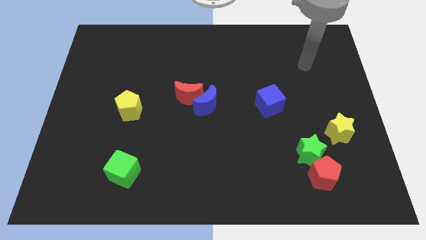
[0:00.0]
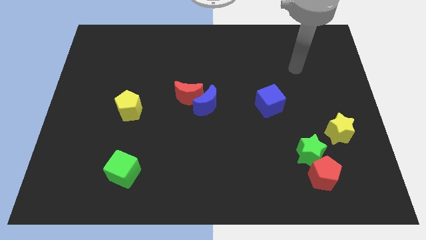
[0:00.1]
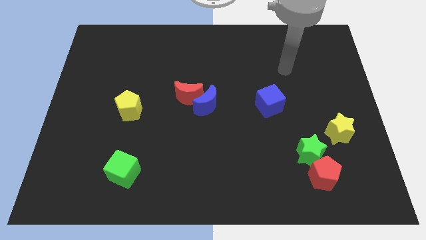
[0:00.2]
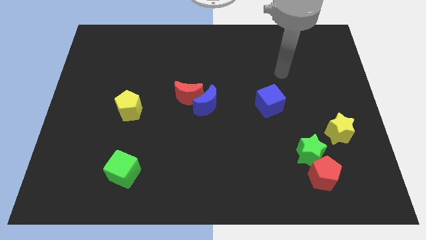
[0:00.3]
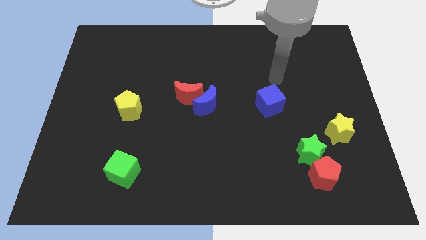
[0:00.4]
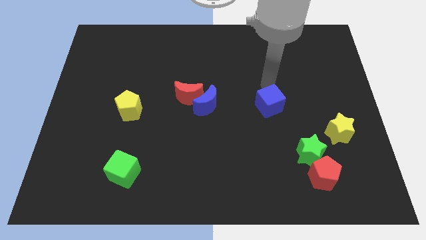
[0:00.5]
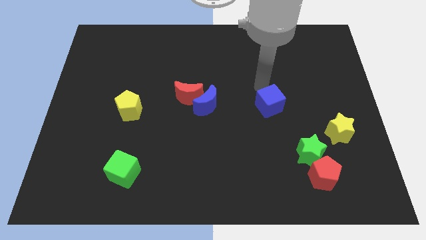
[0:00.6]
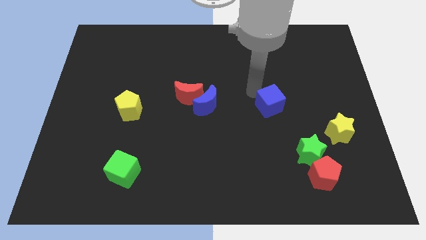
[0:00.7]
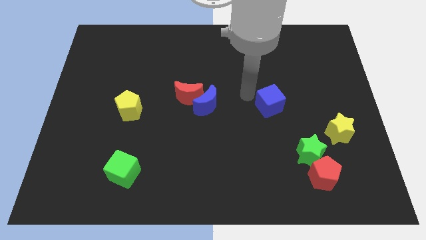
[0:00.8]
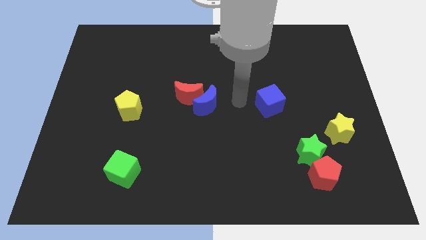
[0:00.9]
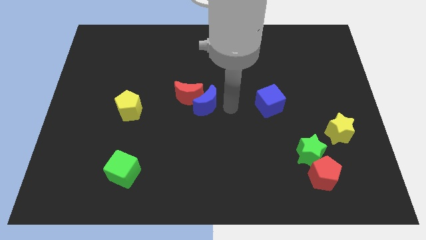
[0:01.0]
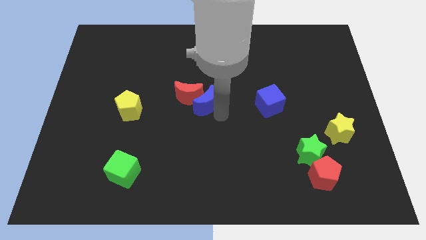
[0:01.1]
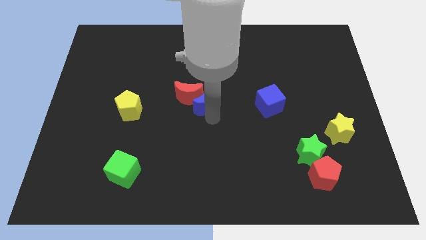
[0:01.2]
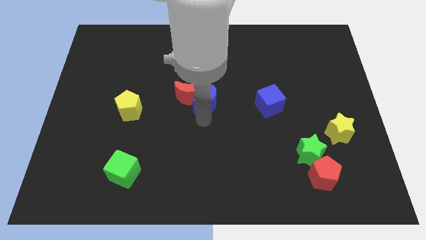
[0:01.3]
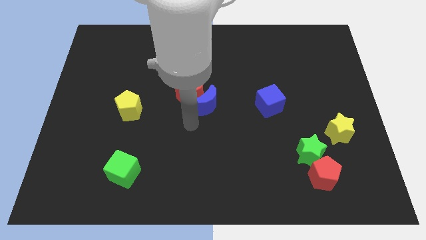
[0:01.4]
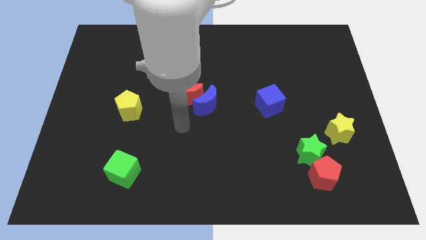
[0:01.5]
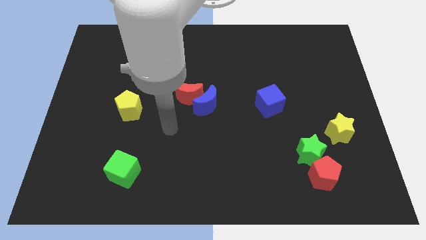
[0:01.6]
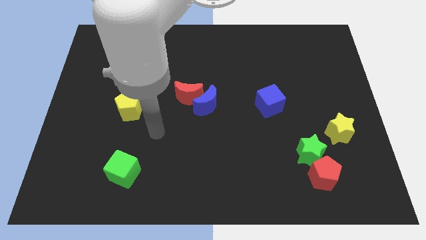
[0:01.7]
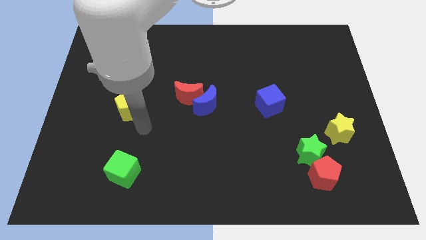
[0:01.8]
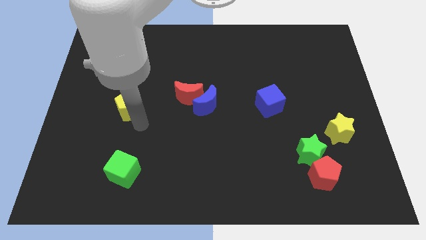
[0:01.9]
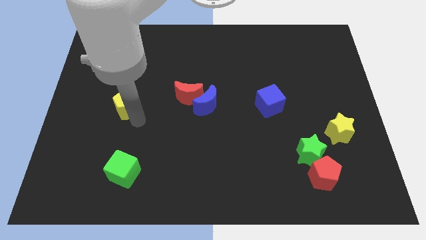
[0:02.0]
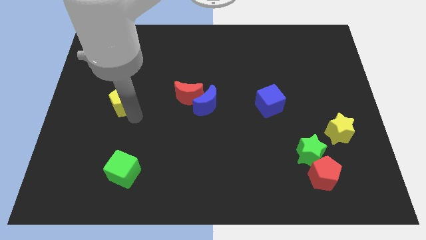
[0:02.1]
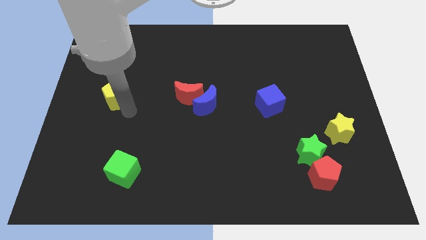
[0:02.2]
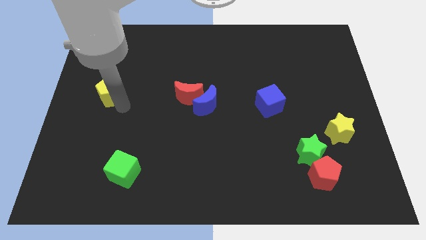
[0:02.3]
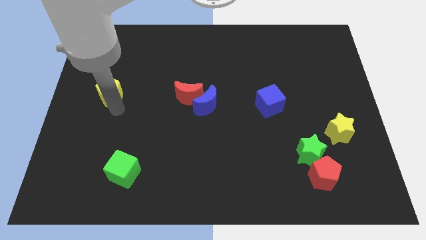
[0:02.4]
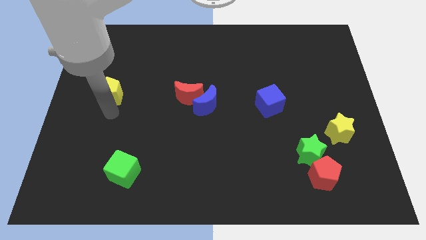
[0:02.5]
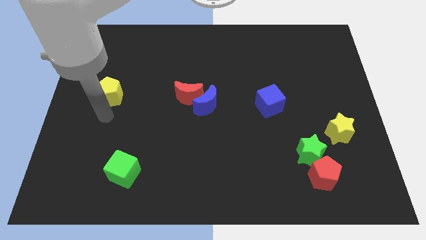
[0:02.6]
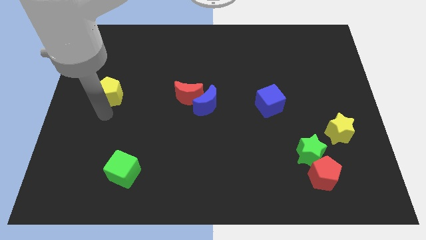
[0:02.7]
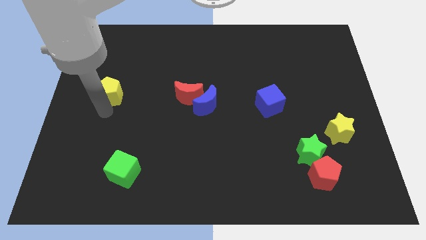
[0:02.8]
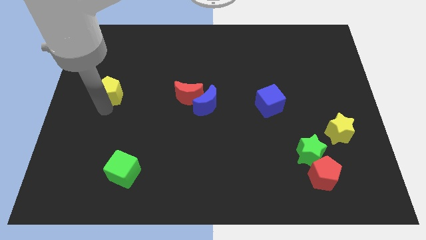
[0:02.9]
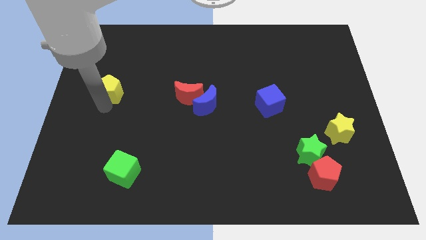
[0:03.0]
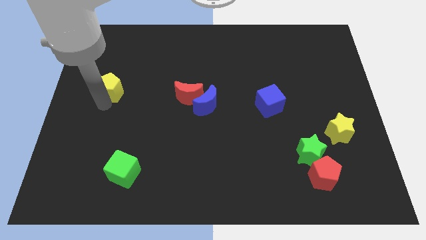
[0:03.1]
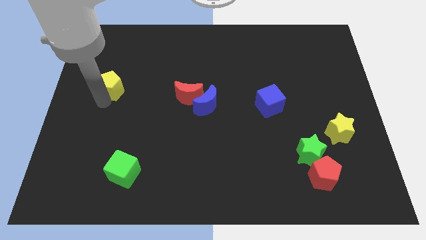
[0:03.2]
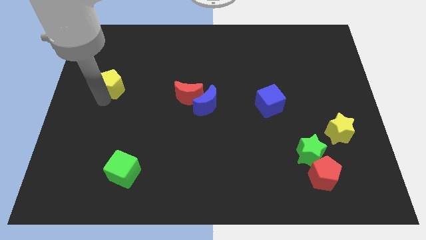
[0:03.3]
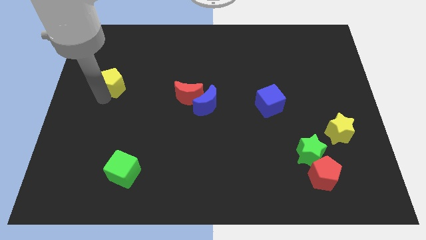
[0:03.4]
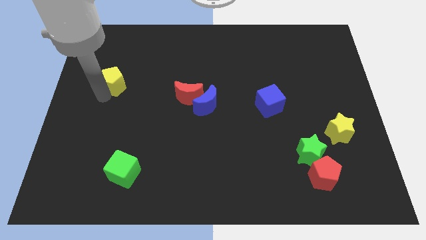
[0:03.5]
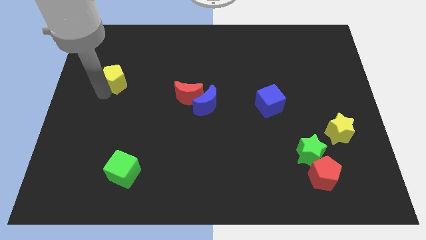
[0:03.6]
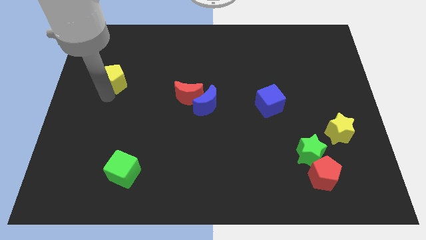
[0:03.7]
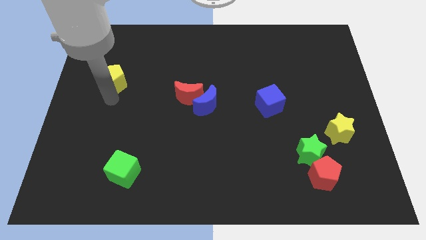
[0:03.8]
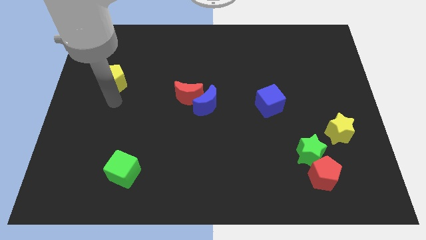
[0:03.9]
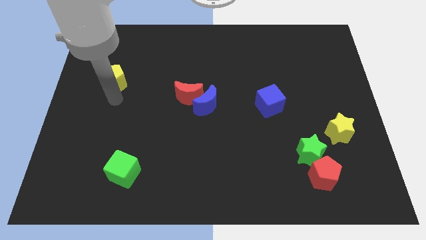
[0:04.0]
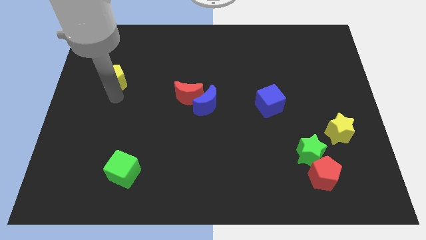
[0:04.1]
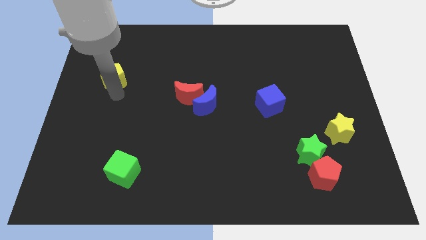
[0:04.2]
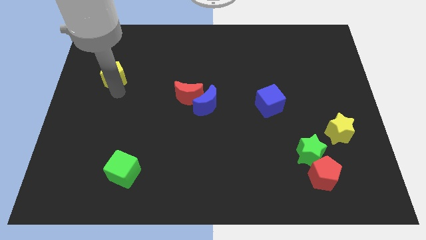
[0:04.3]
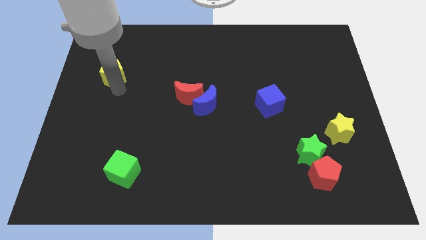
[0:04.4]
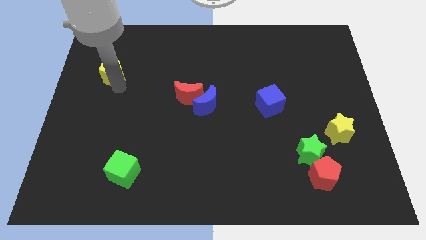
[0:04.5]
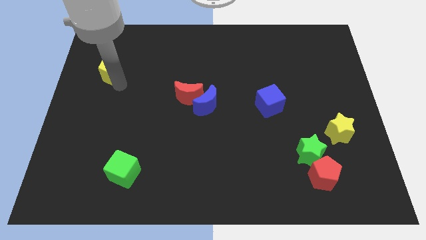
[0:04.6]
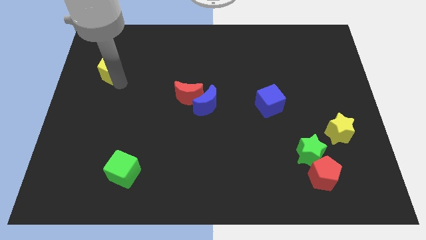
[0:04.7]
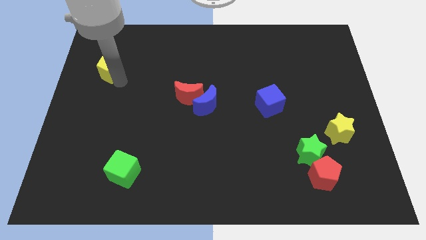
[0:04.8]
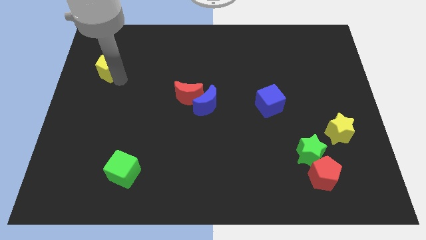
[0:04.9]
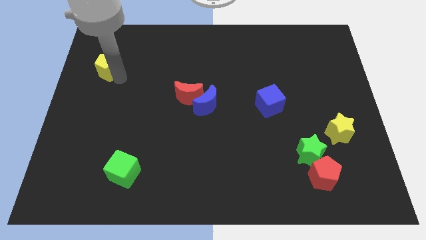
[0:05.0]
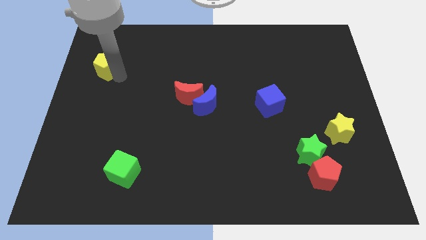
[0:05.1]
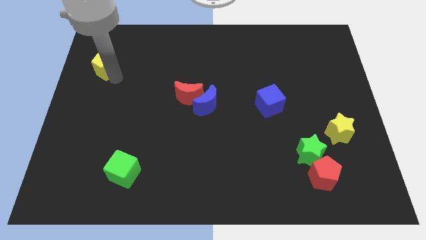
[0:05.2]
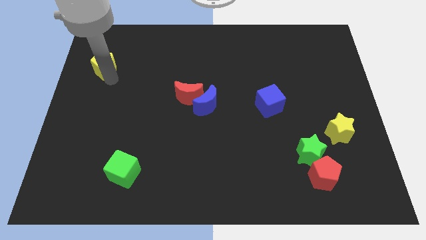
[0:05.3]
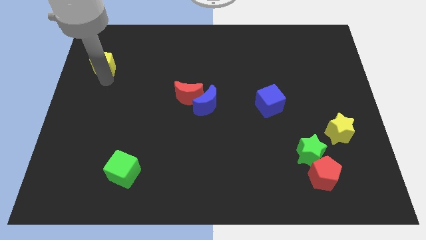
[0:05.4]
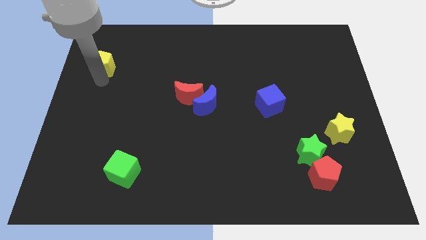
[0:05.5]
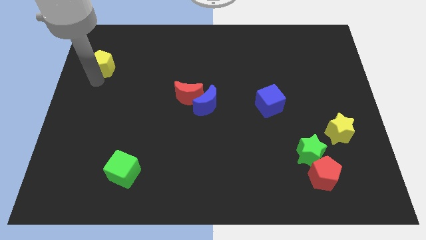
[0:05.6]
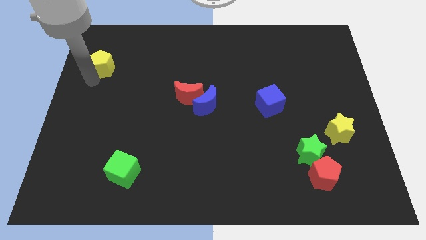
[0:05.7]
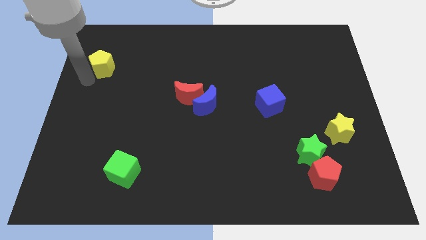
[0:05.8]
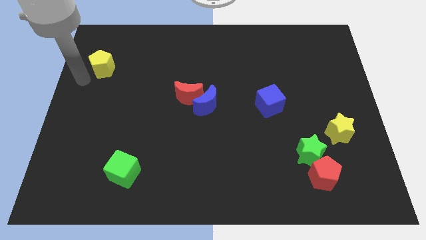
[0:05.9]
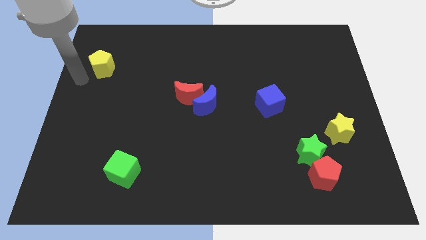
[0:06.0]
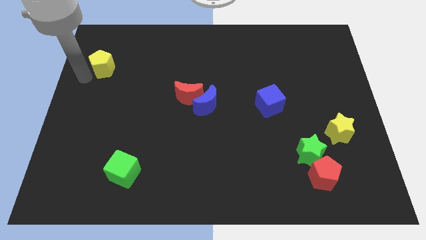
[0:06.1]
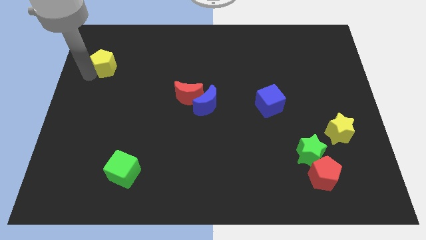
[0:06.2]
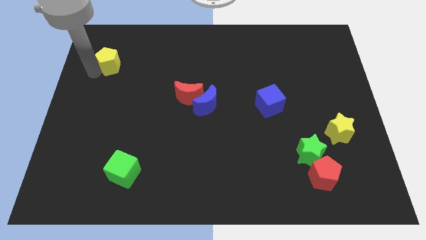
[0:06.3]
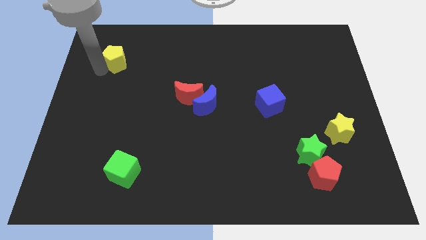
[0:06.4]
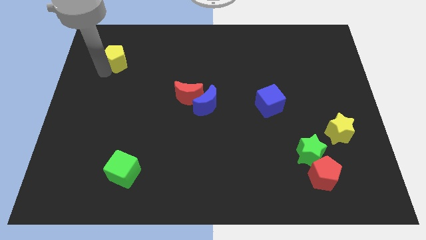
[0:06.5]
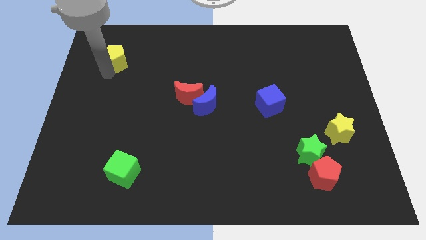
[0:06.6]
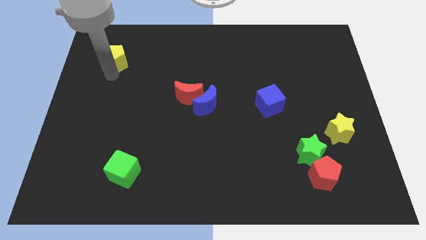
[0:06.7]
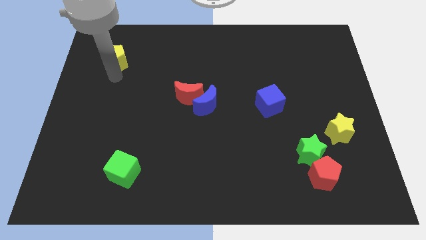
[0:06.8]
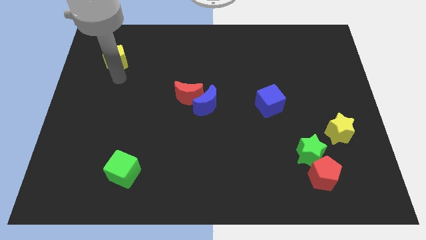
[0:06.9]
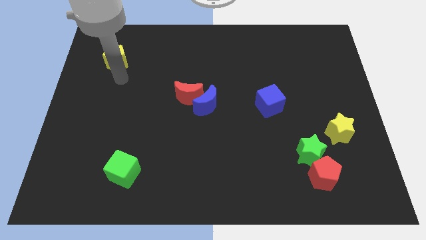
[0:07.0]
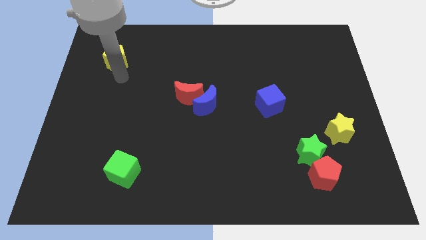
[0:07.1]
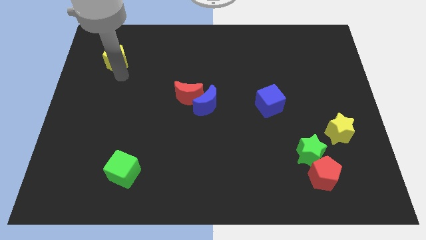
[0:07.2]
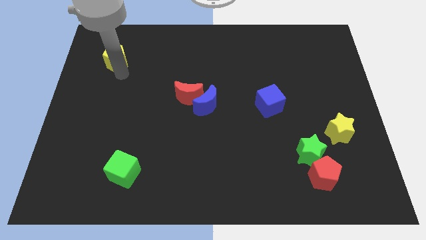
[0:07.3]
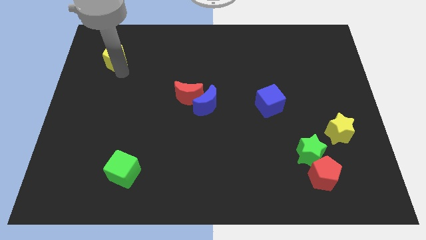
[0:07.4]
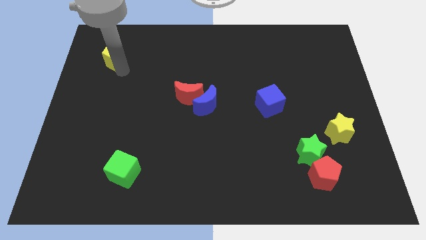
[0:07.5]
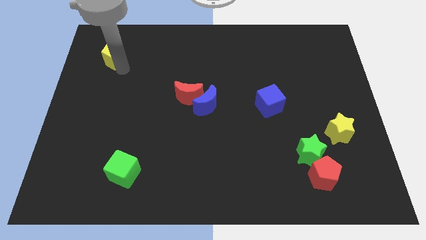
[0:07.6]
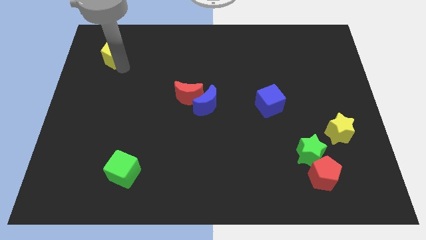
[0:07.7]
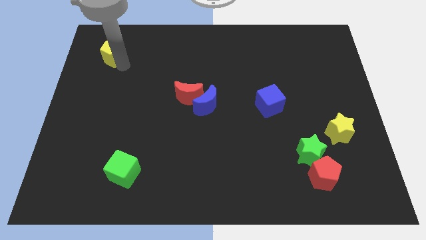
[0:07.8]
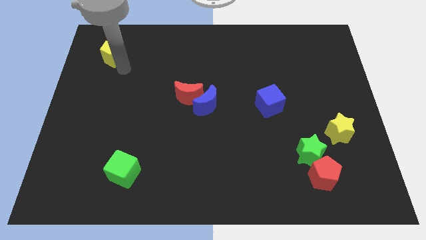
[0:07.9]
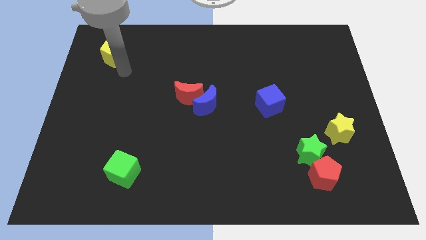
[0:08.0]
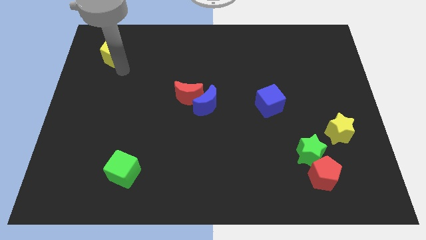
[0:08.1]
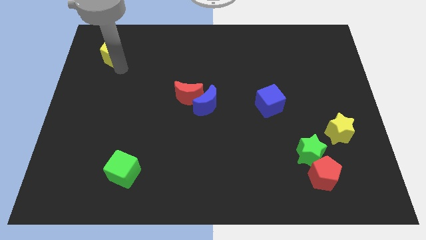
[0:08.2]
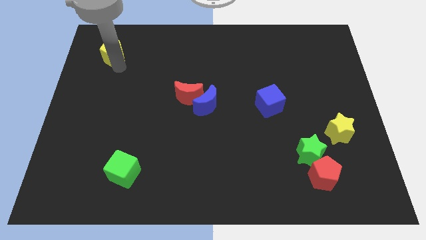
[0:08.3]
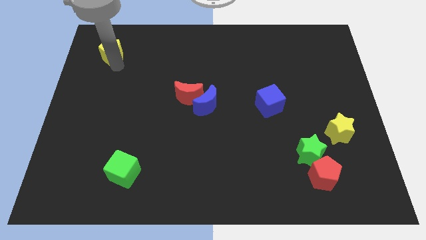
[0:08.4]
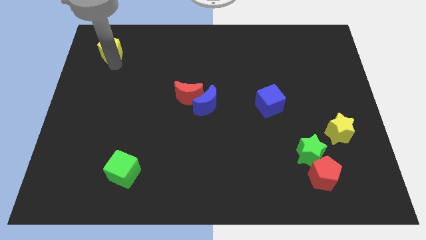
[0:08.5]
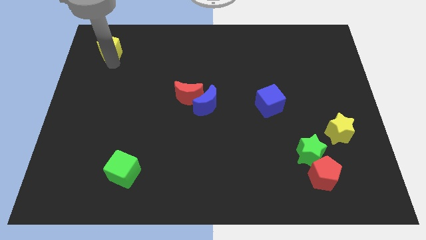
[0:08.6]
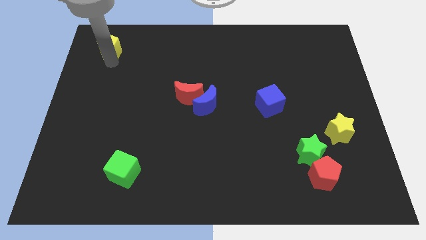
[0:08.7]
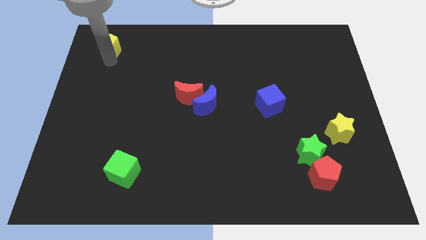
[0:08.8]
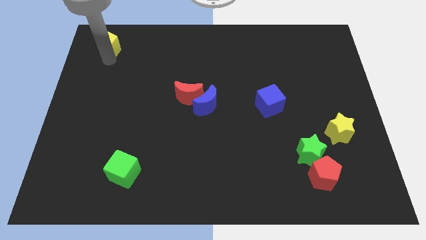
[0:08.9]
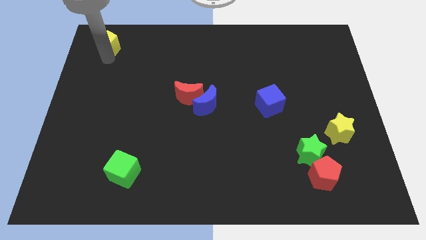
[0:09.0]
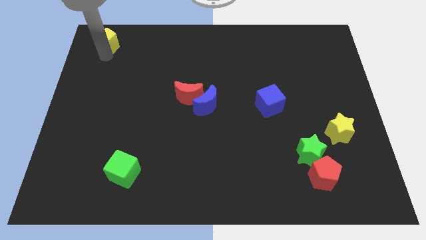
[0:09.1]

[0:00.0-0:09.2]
put the yellow pentagon to the top left
